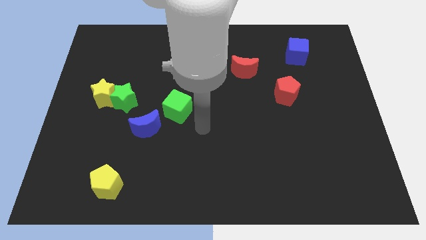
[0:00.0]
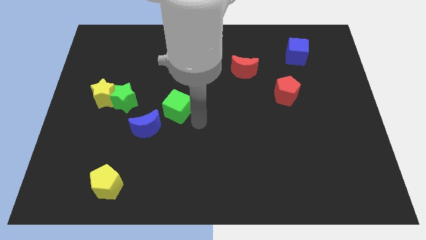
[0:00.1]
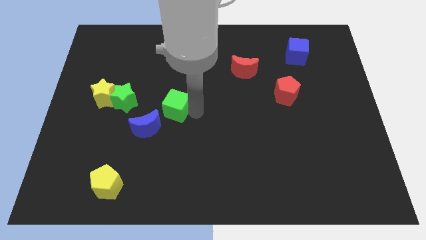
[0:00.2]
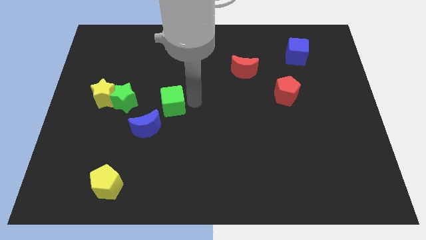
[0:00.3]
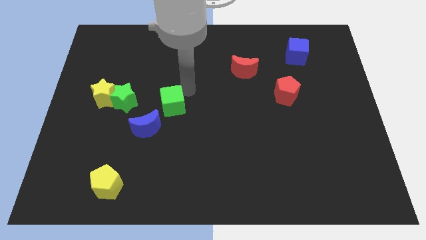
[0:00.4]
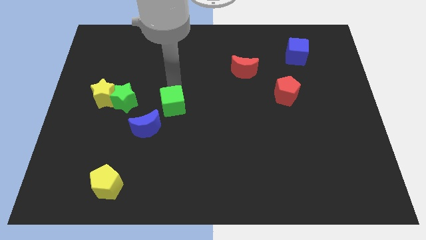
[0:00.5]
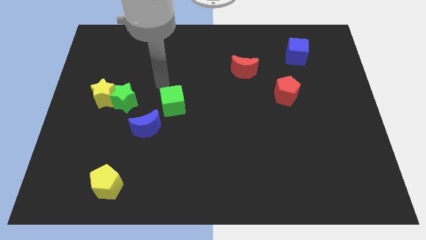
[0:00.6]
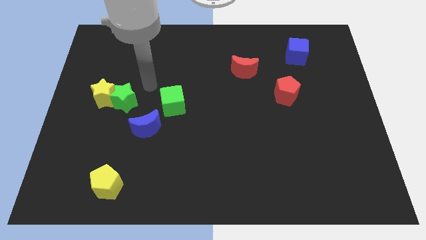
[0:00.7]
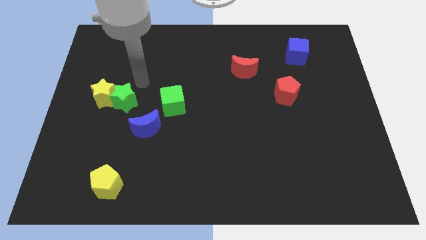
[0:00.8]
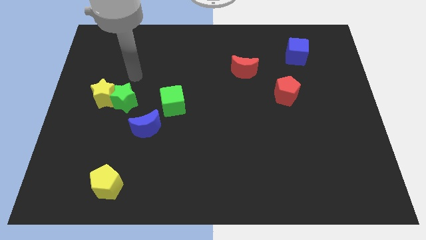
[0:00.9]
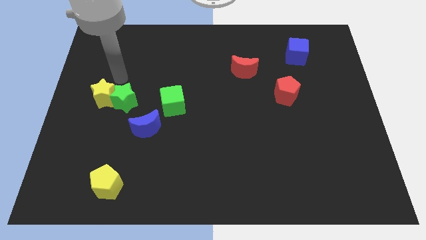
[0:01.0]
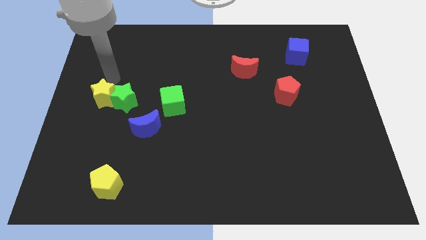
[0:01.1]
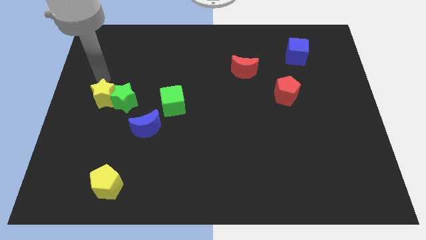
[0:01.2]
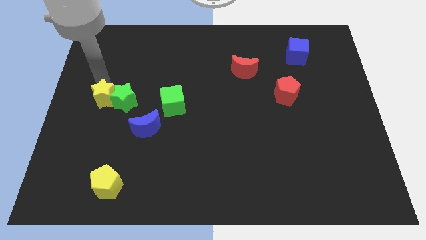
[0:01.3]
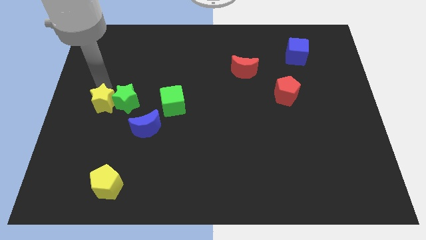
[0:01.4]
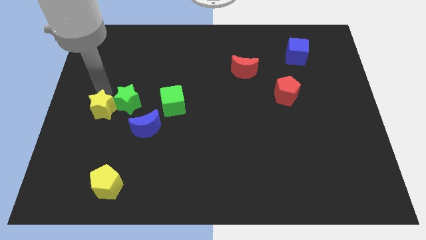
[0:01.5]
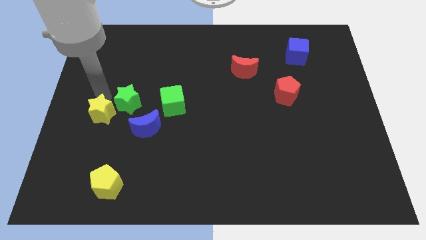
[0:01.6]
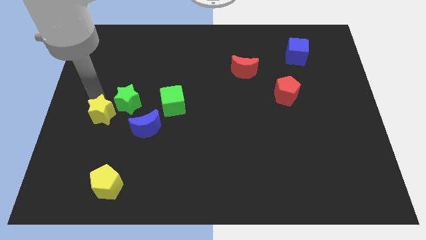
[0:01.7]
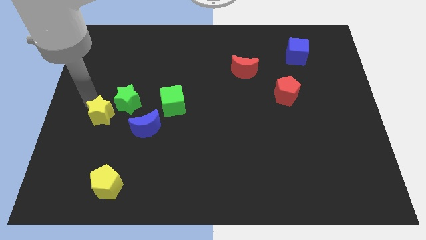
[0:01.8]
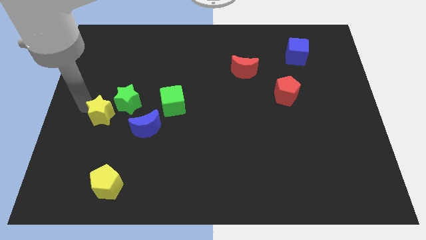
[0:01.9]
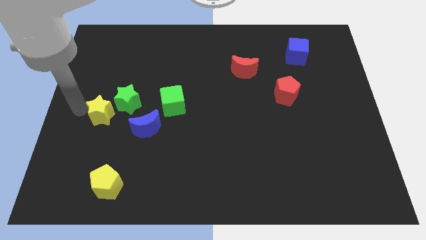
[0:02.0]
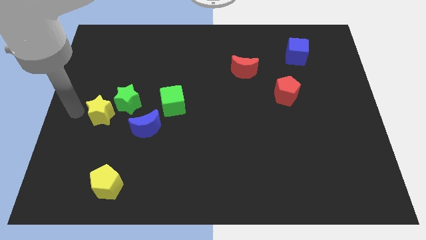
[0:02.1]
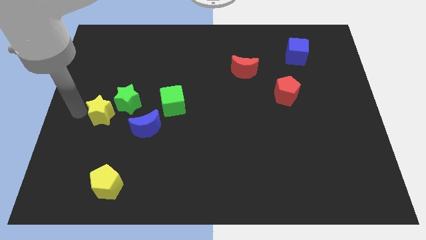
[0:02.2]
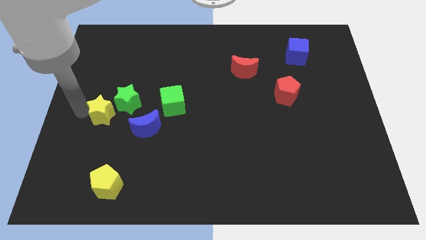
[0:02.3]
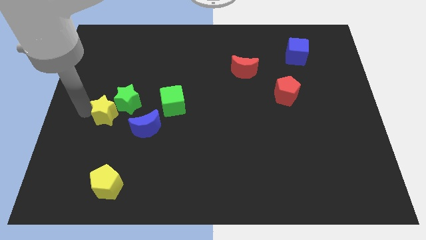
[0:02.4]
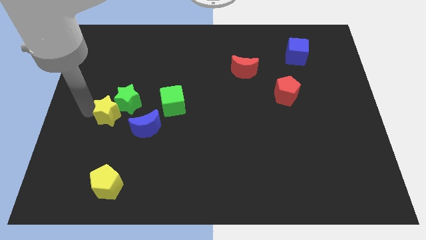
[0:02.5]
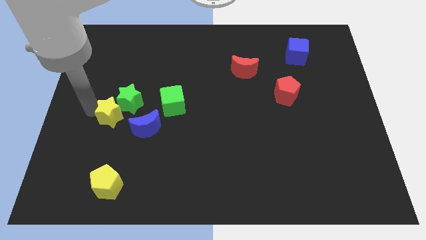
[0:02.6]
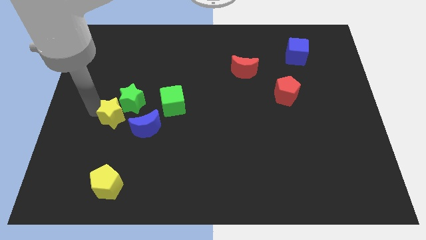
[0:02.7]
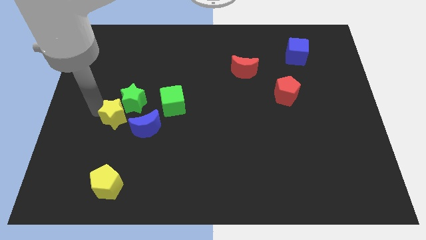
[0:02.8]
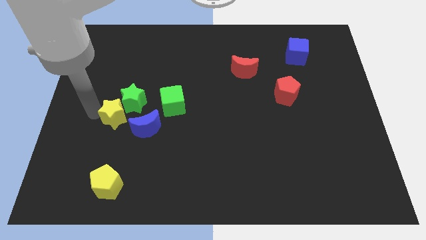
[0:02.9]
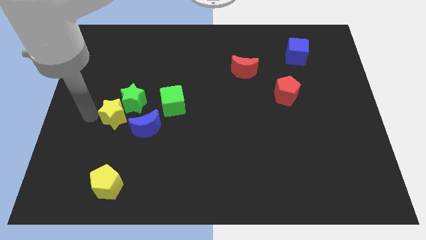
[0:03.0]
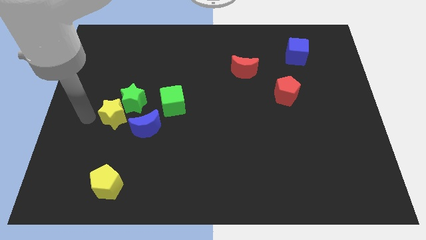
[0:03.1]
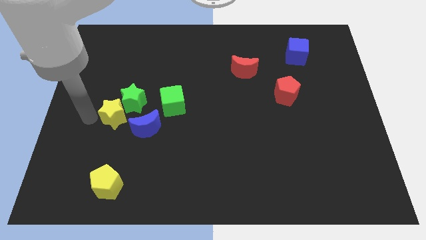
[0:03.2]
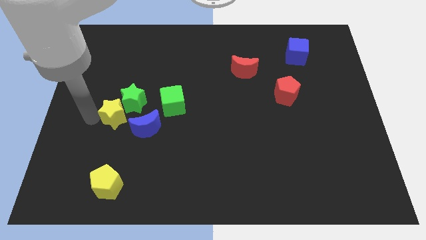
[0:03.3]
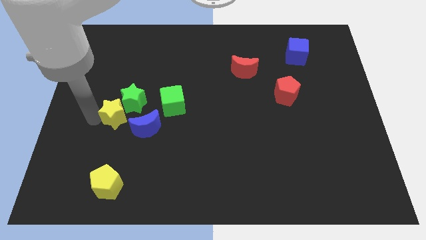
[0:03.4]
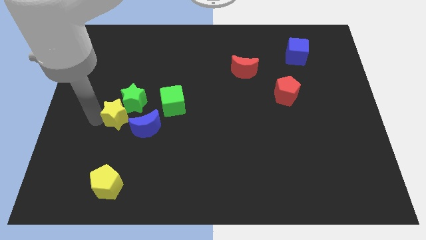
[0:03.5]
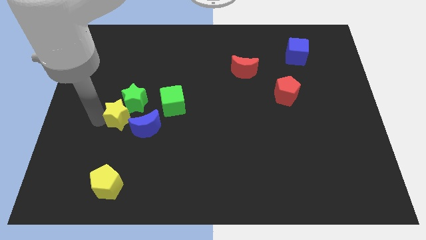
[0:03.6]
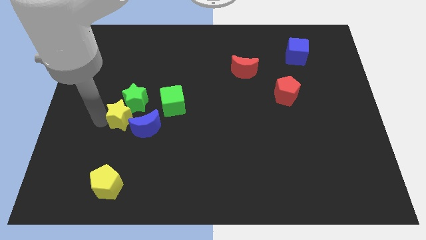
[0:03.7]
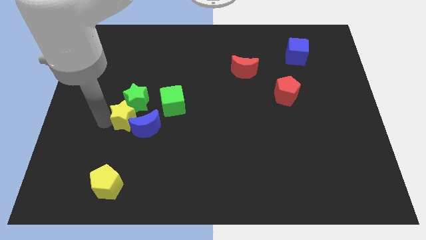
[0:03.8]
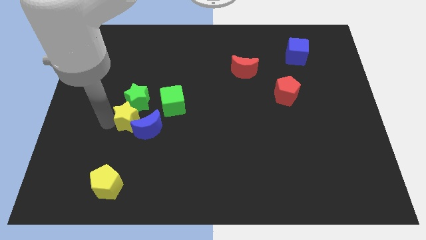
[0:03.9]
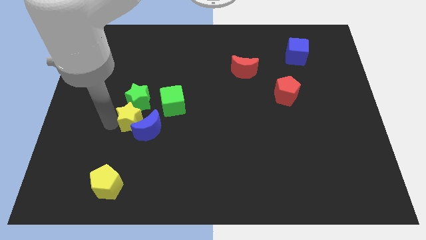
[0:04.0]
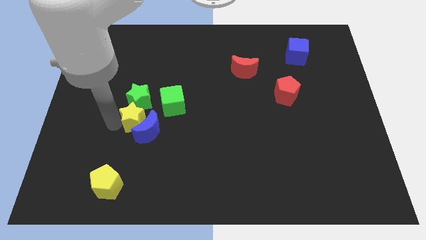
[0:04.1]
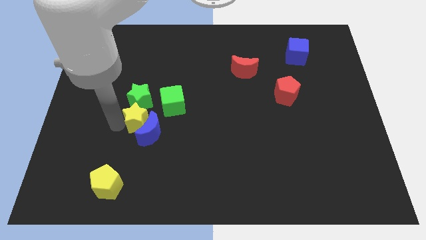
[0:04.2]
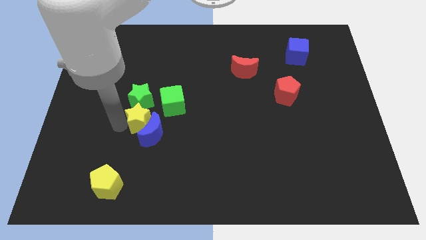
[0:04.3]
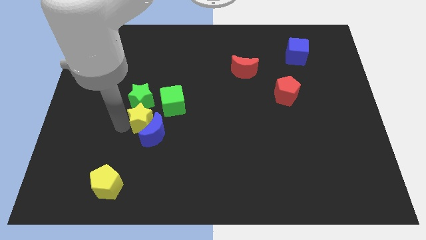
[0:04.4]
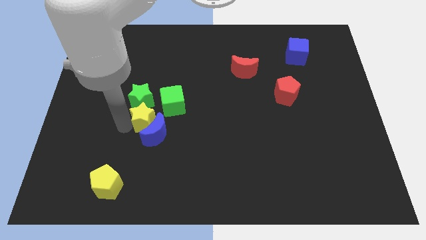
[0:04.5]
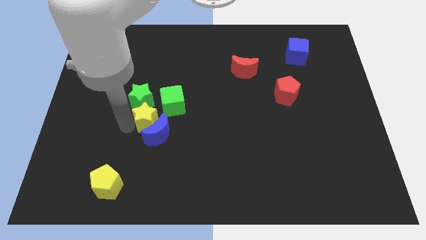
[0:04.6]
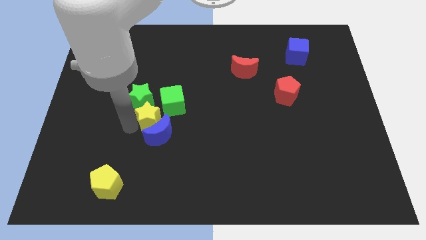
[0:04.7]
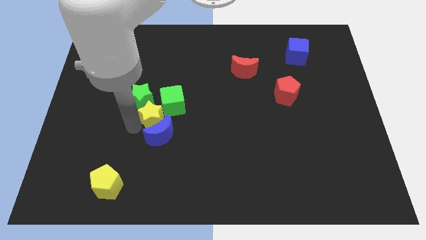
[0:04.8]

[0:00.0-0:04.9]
put the yellow star next to the green cube

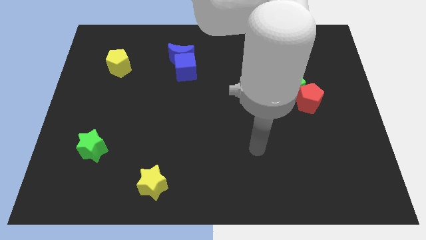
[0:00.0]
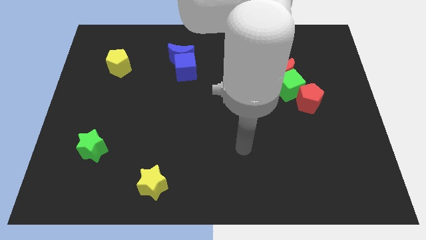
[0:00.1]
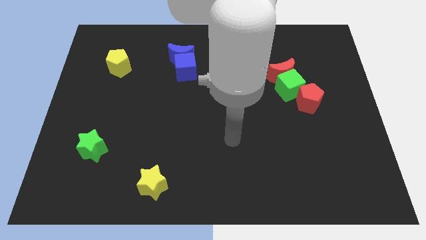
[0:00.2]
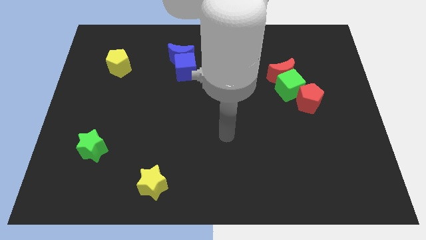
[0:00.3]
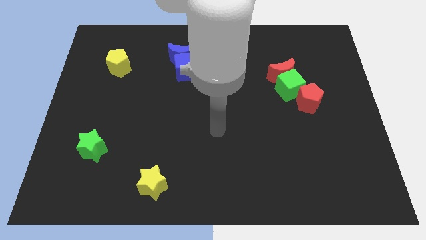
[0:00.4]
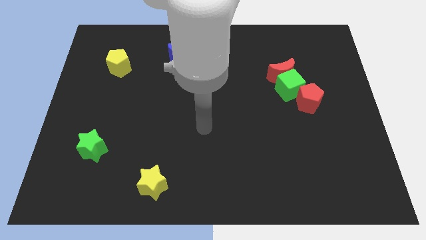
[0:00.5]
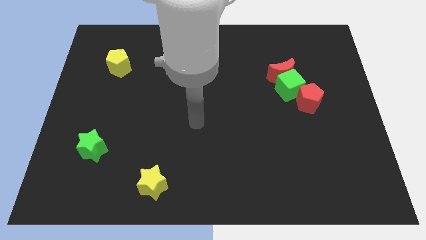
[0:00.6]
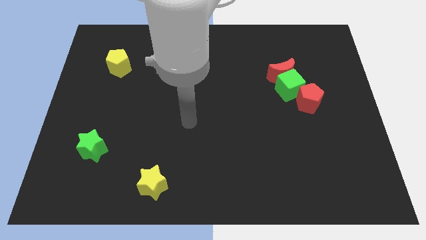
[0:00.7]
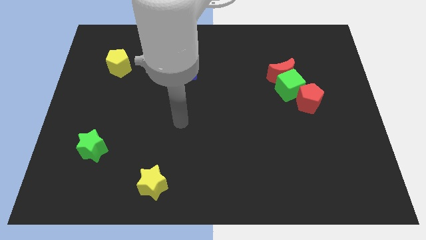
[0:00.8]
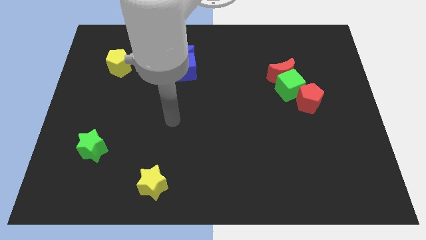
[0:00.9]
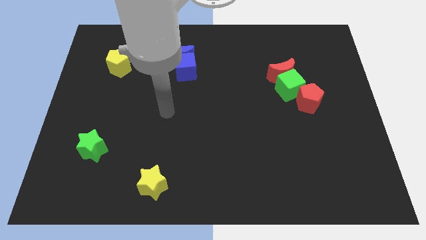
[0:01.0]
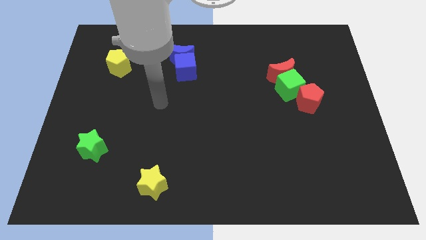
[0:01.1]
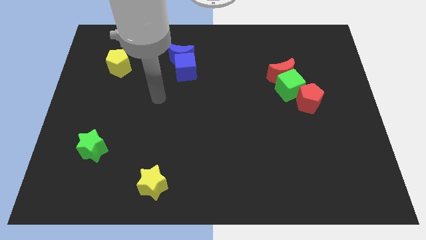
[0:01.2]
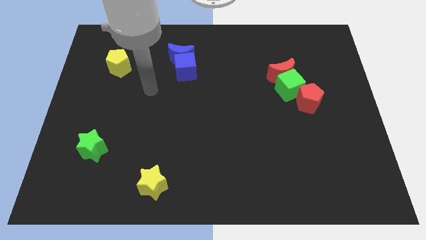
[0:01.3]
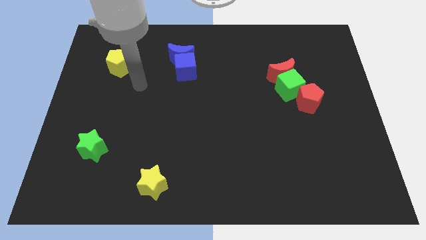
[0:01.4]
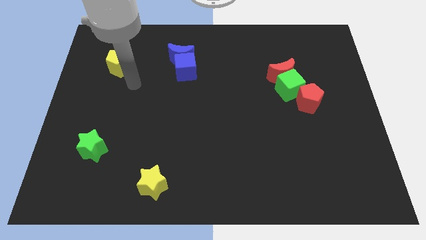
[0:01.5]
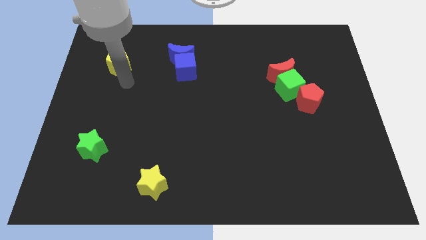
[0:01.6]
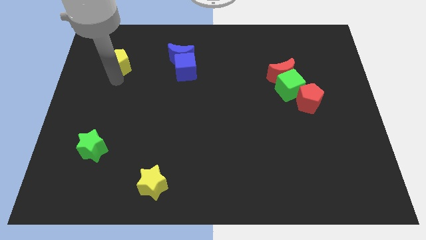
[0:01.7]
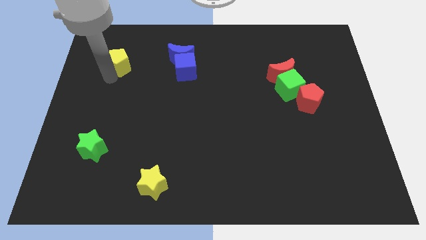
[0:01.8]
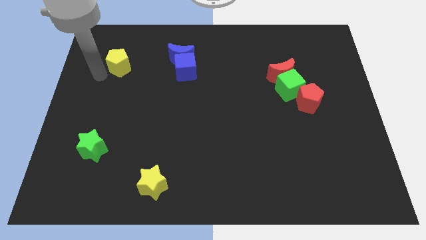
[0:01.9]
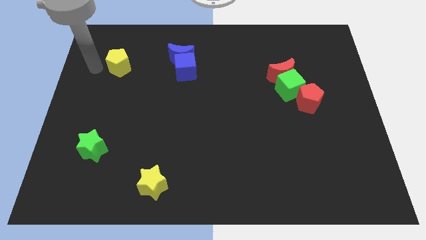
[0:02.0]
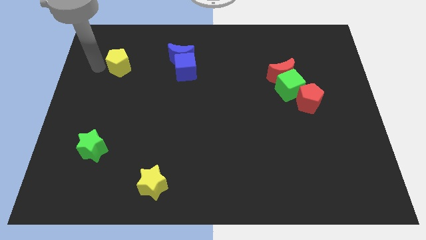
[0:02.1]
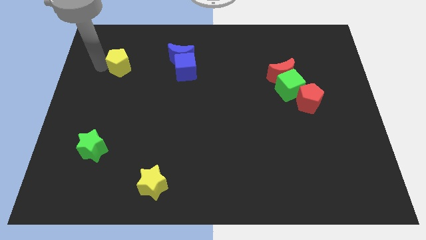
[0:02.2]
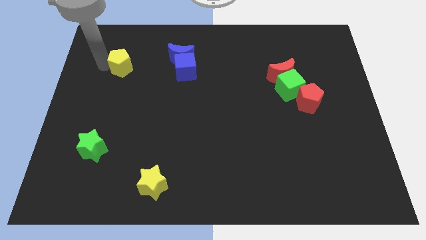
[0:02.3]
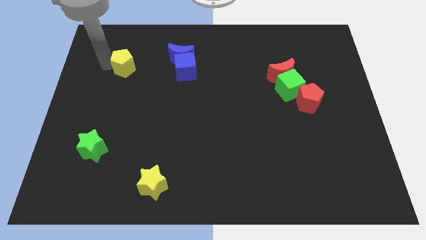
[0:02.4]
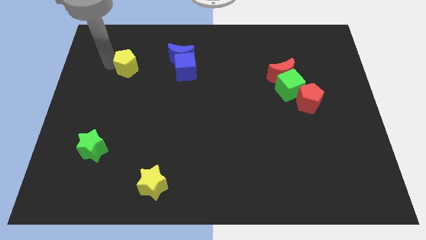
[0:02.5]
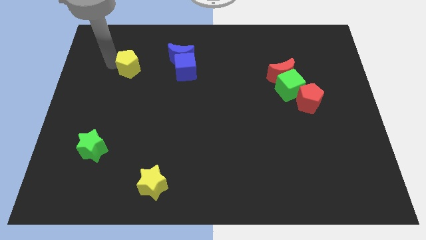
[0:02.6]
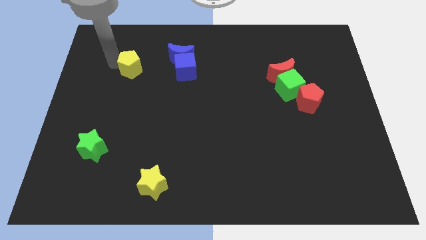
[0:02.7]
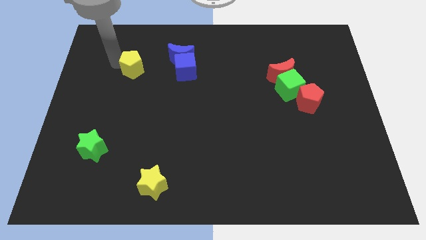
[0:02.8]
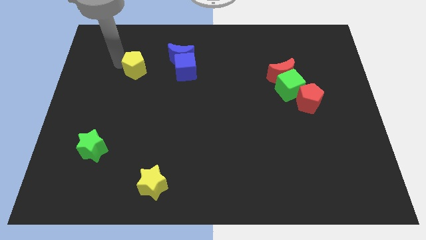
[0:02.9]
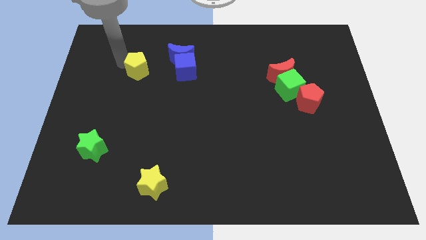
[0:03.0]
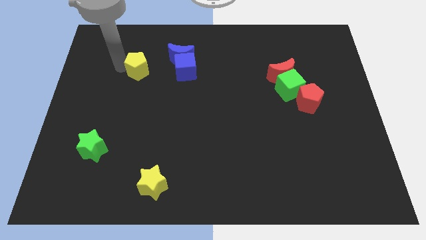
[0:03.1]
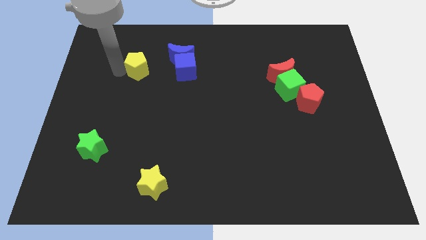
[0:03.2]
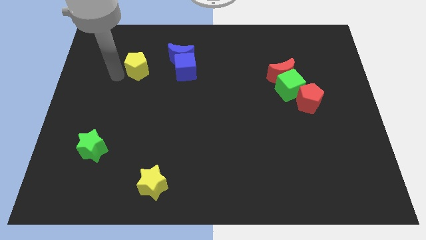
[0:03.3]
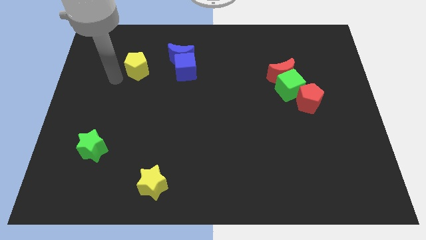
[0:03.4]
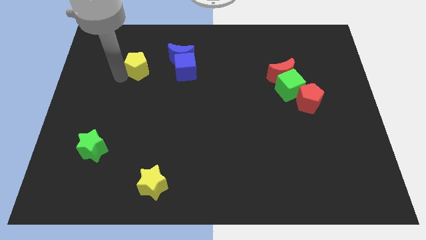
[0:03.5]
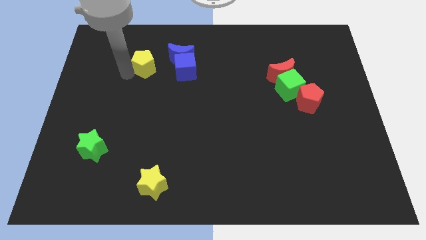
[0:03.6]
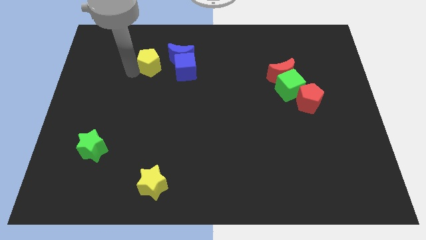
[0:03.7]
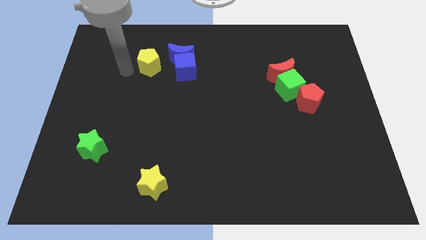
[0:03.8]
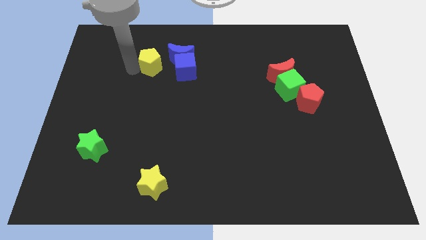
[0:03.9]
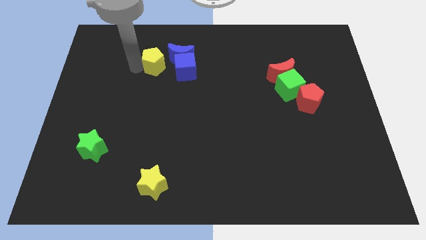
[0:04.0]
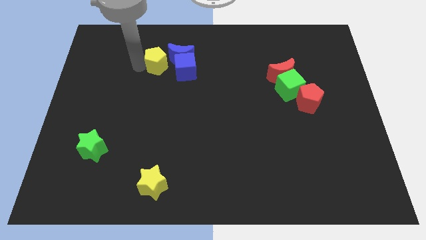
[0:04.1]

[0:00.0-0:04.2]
push the yellow pentagon next to the blue moon
